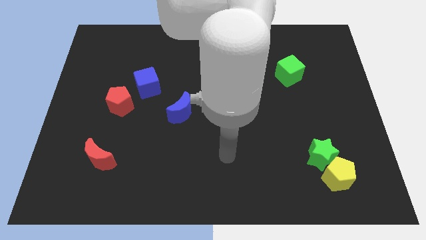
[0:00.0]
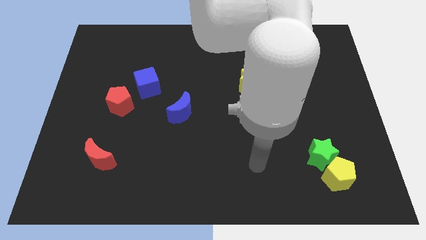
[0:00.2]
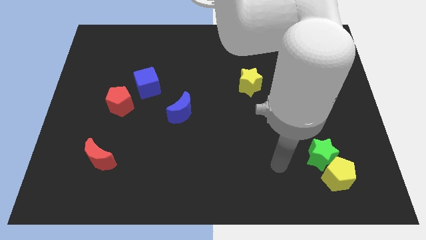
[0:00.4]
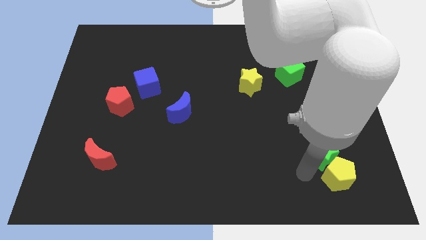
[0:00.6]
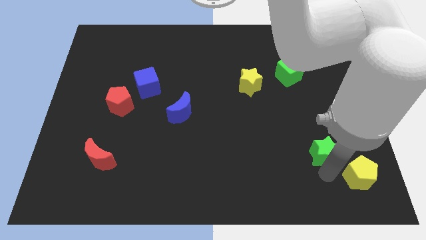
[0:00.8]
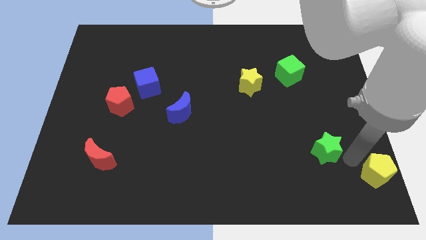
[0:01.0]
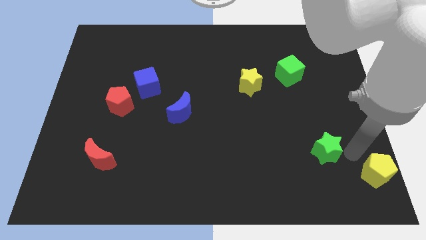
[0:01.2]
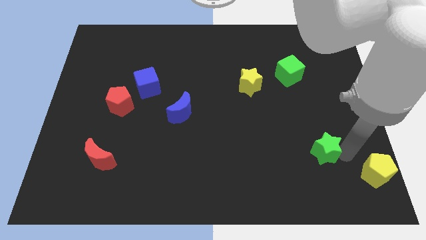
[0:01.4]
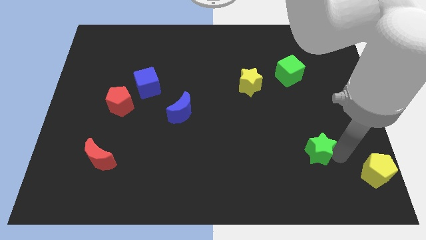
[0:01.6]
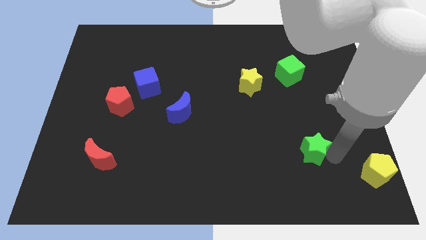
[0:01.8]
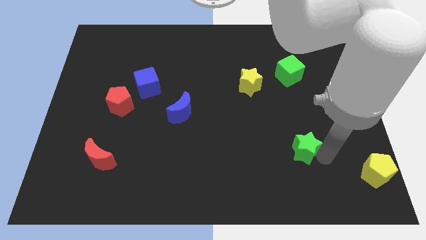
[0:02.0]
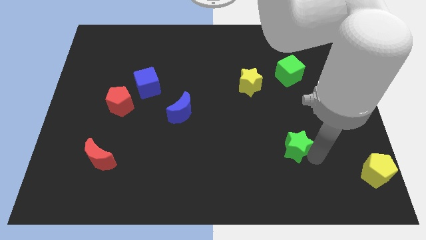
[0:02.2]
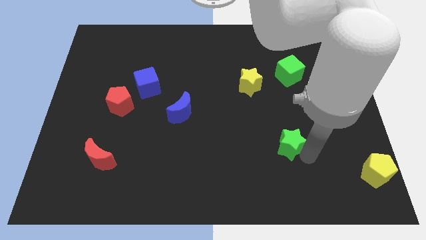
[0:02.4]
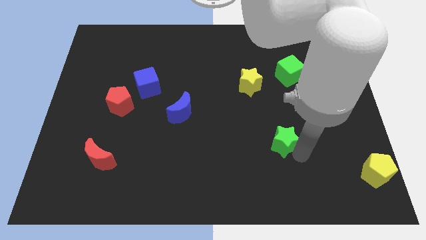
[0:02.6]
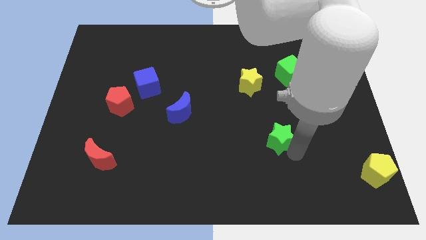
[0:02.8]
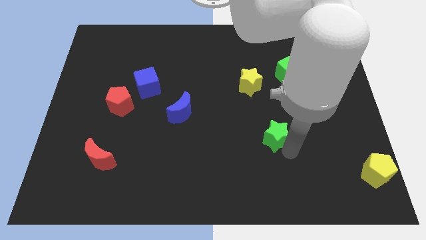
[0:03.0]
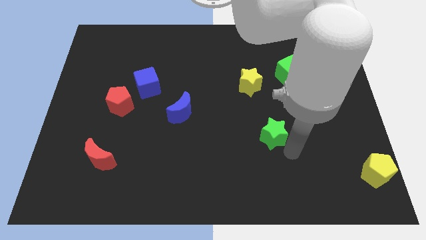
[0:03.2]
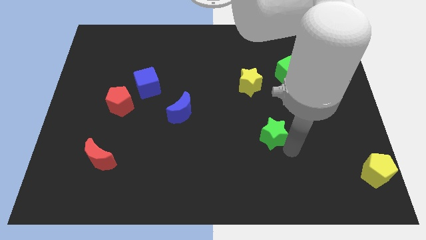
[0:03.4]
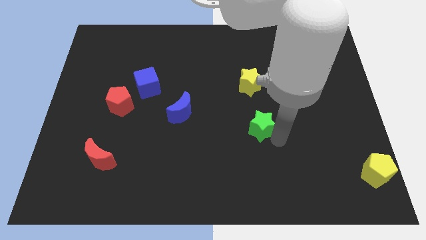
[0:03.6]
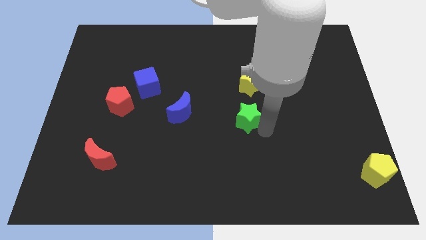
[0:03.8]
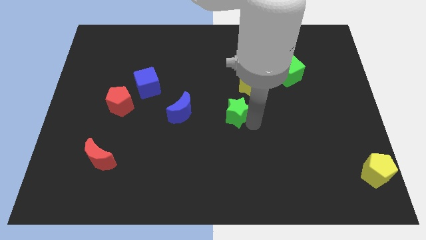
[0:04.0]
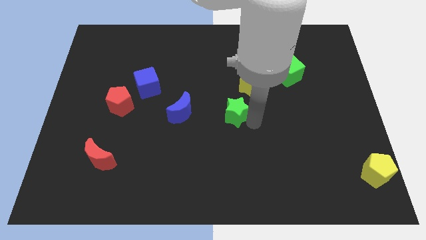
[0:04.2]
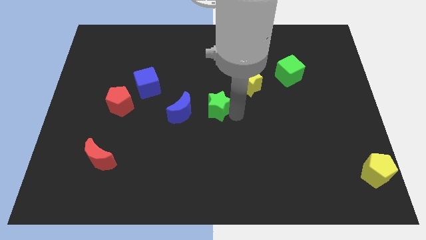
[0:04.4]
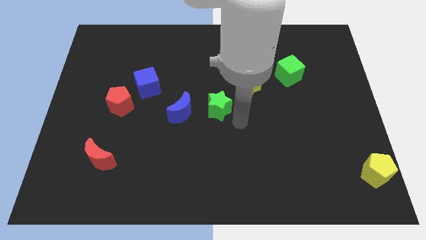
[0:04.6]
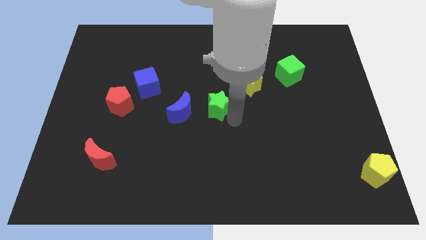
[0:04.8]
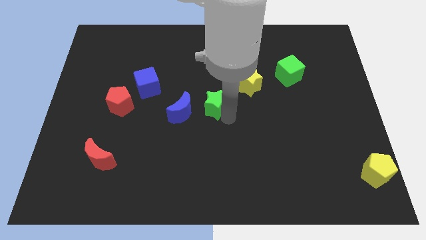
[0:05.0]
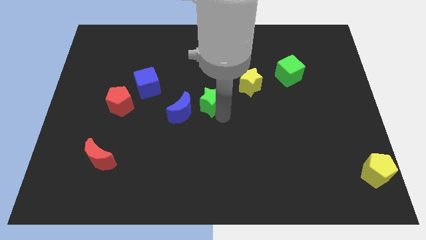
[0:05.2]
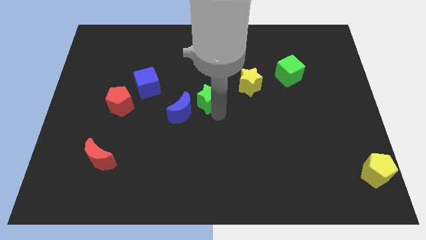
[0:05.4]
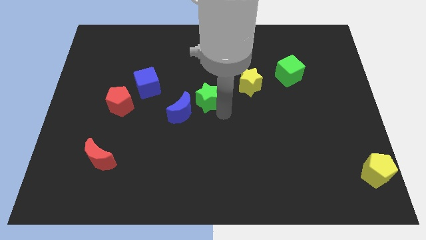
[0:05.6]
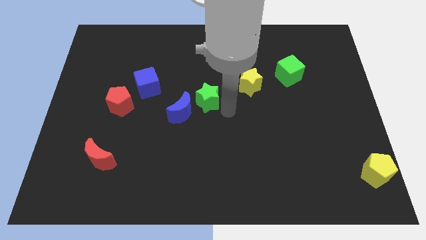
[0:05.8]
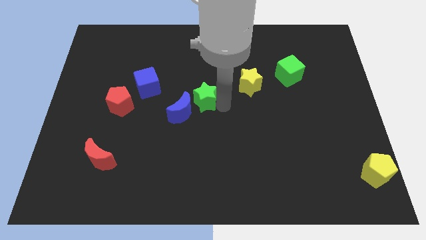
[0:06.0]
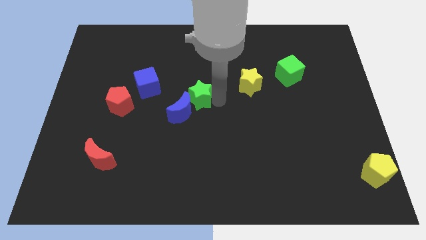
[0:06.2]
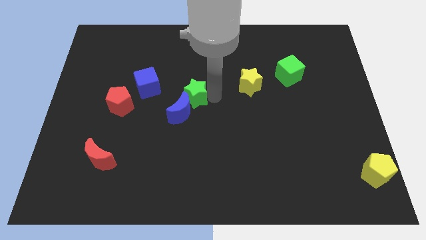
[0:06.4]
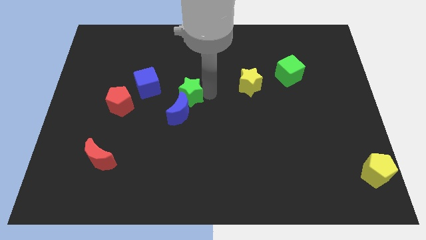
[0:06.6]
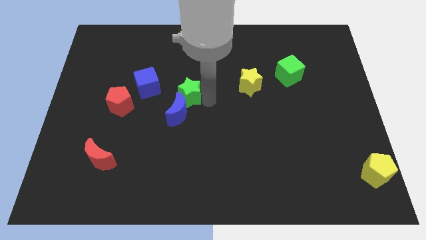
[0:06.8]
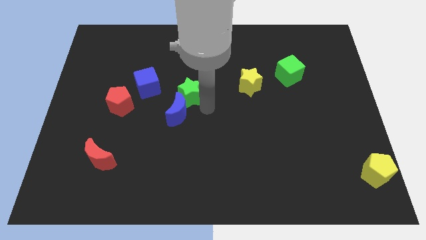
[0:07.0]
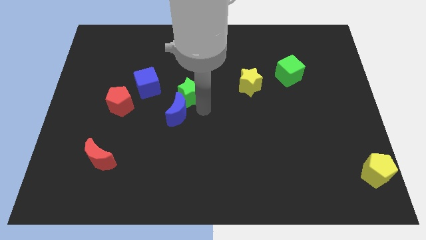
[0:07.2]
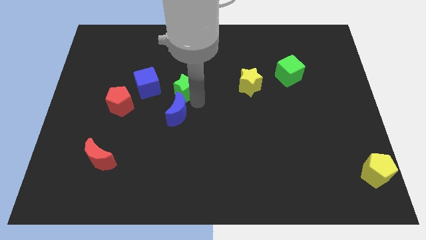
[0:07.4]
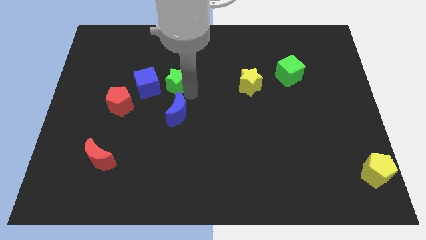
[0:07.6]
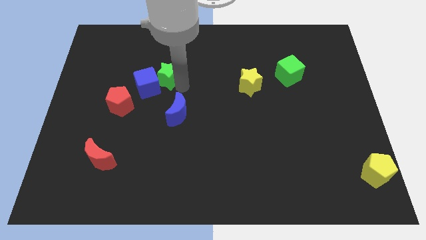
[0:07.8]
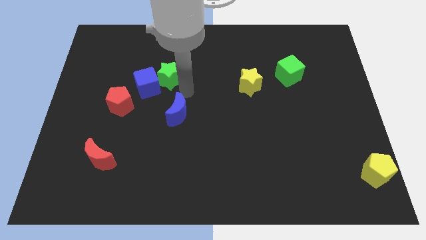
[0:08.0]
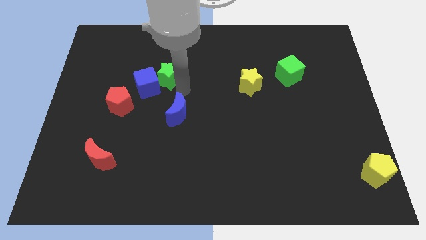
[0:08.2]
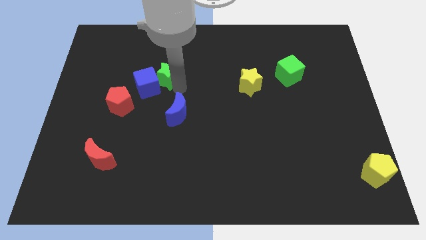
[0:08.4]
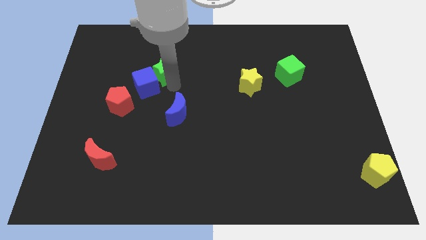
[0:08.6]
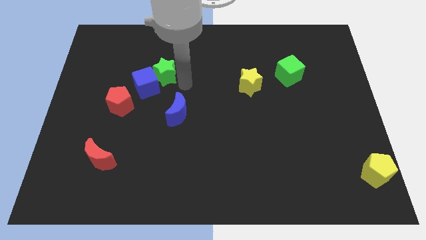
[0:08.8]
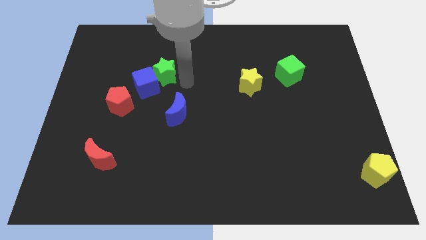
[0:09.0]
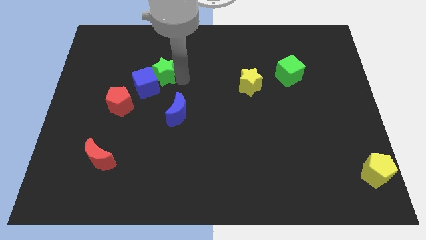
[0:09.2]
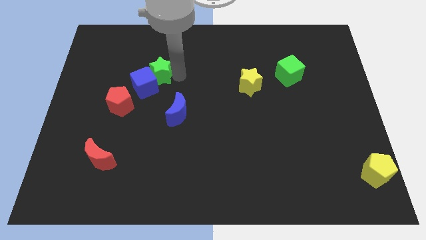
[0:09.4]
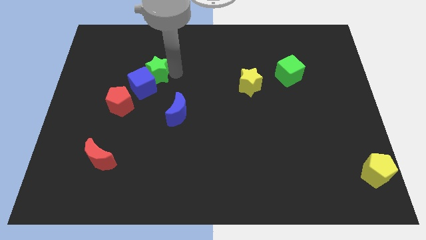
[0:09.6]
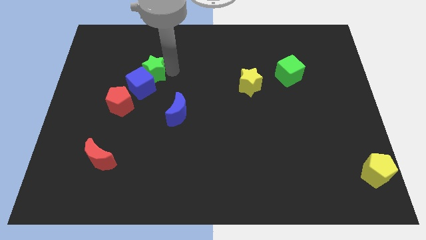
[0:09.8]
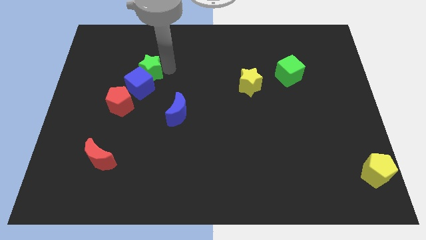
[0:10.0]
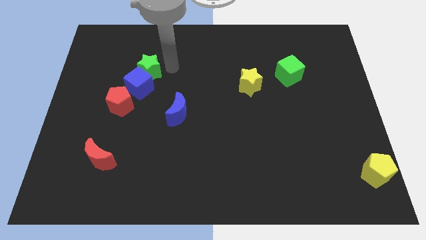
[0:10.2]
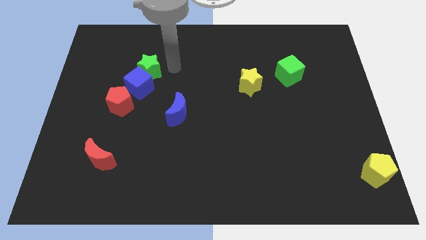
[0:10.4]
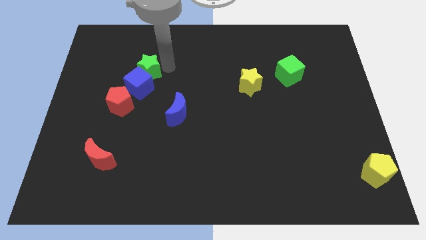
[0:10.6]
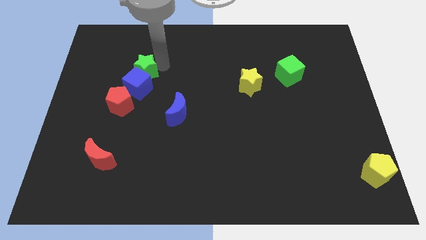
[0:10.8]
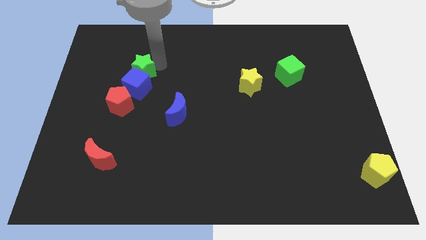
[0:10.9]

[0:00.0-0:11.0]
slide the green star to the top side of the red pentagon

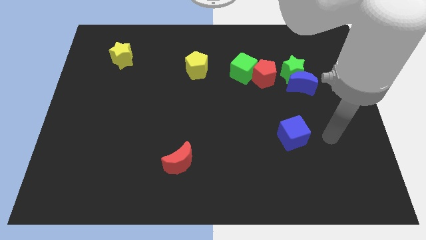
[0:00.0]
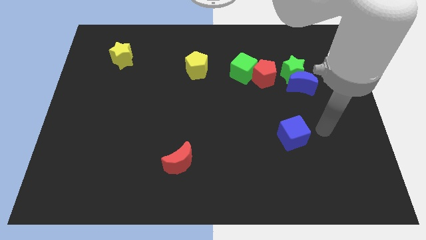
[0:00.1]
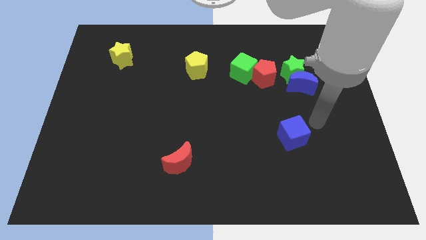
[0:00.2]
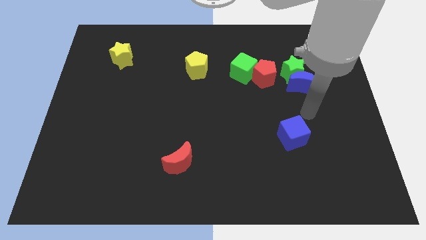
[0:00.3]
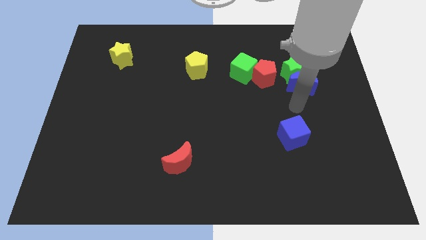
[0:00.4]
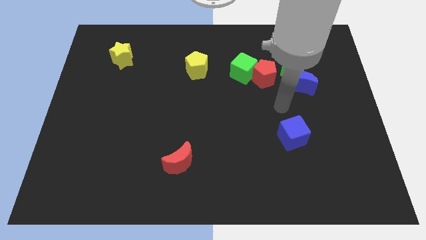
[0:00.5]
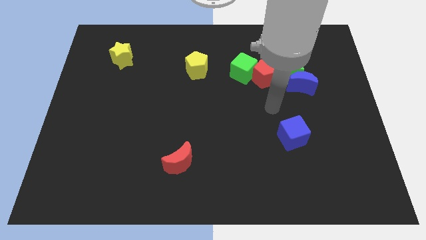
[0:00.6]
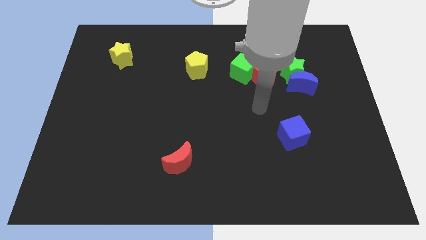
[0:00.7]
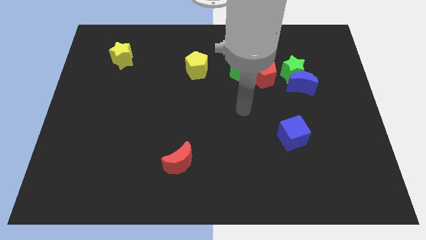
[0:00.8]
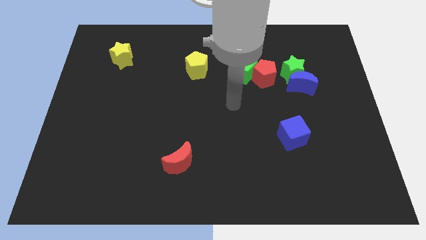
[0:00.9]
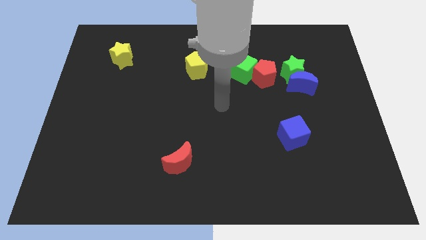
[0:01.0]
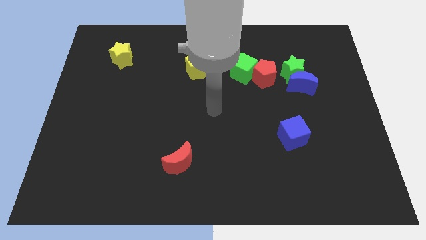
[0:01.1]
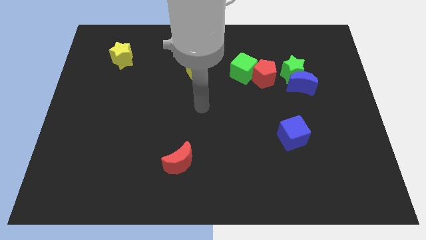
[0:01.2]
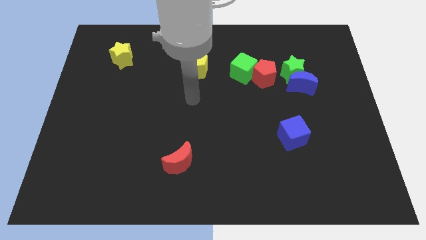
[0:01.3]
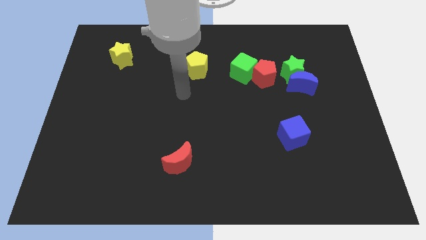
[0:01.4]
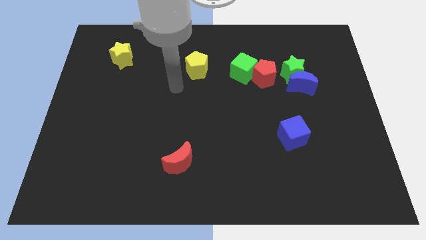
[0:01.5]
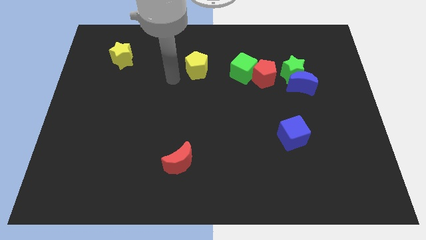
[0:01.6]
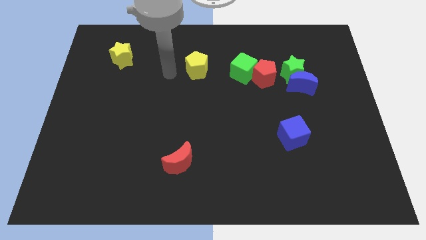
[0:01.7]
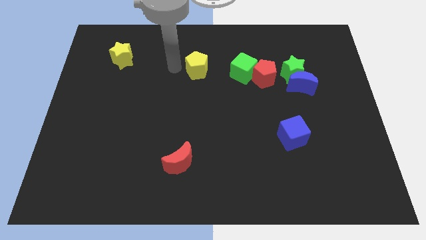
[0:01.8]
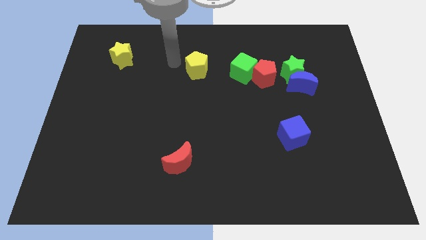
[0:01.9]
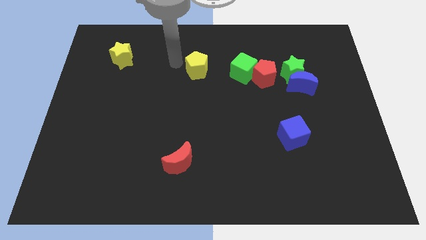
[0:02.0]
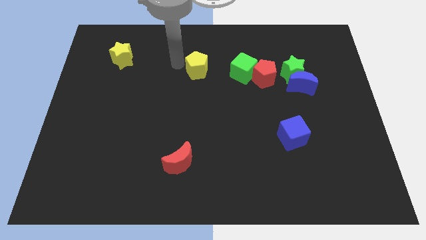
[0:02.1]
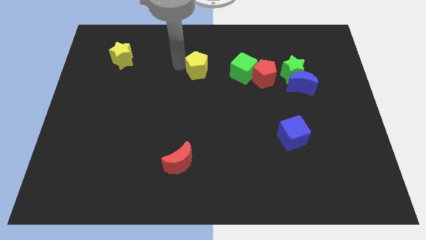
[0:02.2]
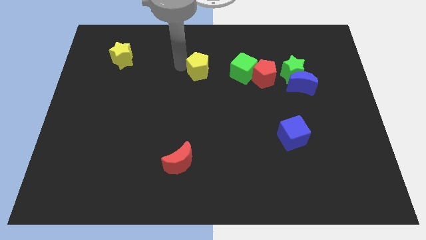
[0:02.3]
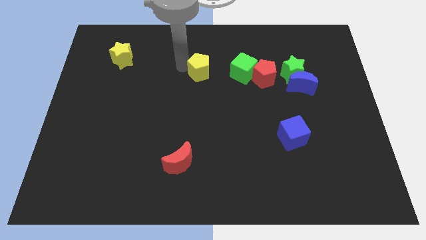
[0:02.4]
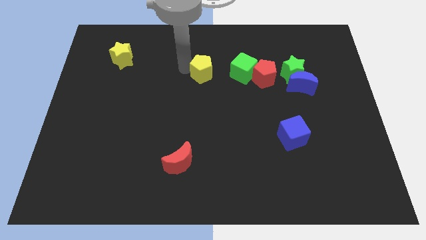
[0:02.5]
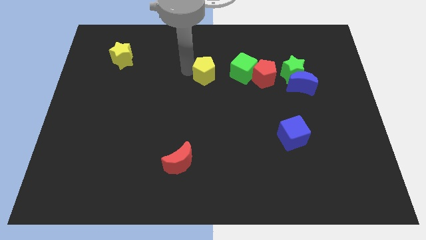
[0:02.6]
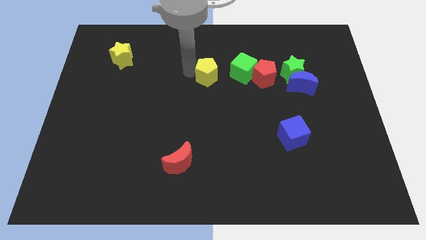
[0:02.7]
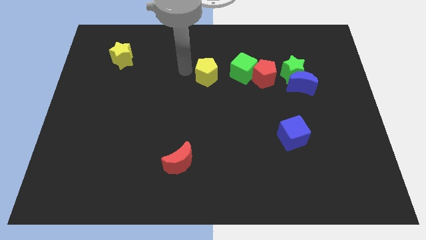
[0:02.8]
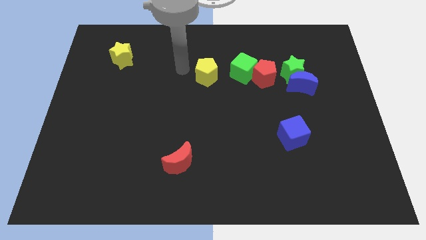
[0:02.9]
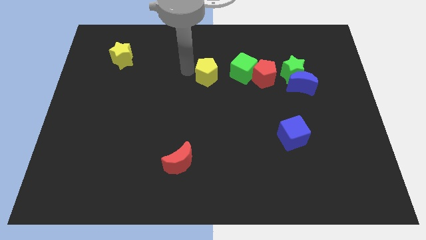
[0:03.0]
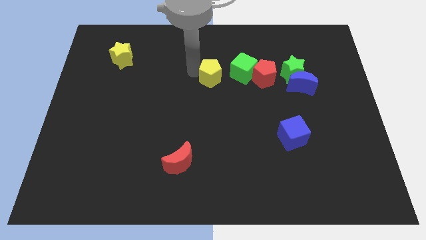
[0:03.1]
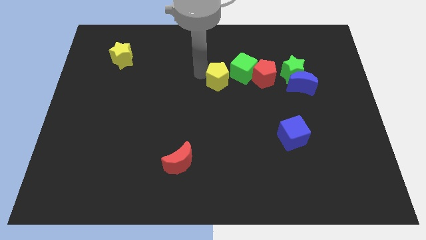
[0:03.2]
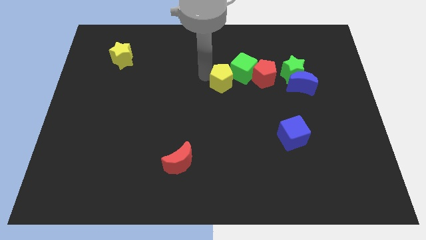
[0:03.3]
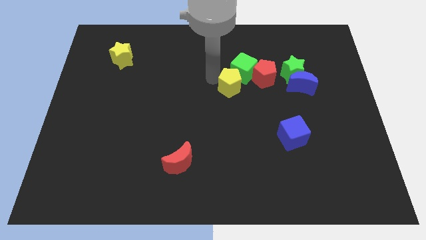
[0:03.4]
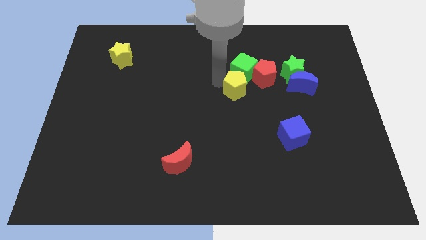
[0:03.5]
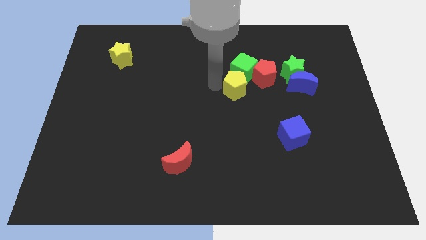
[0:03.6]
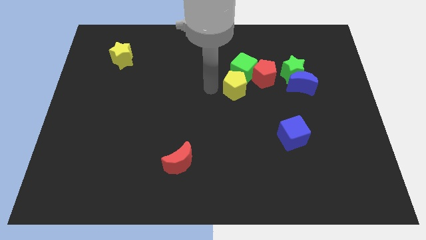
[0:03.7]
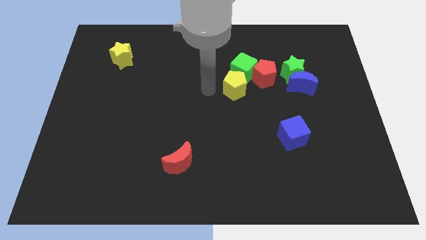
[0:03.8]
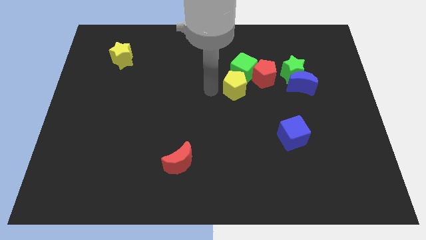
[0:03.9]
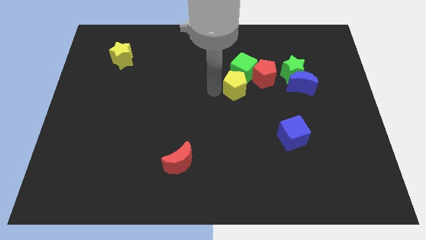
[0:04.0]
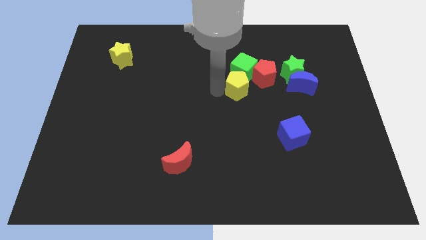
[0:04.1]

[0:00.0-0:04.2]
push the yellow pentagon just left of the blue moon
